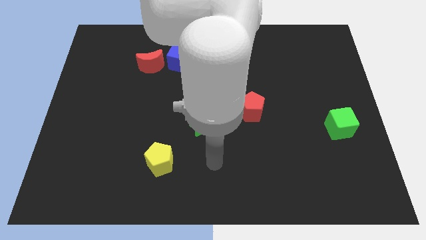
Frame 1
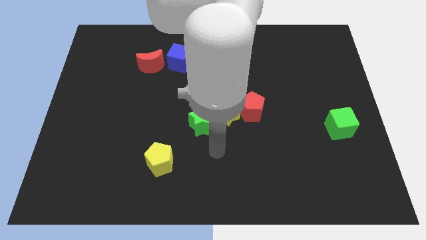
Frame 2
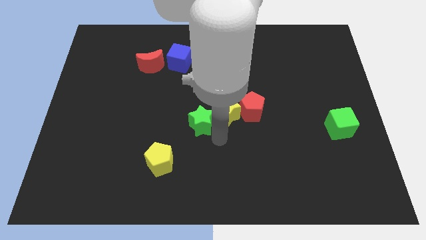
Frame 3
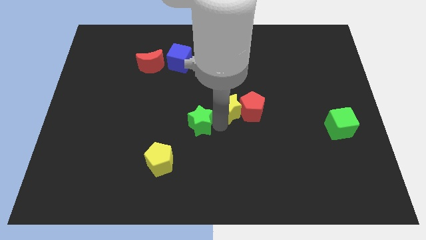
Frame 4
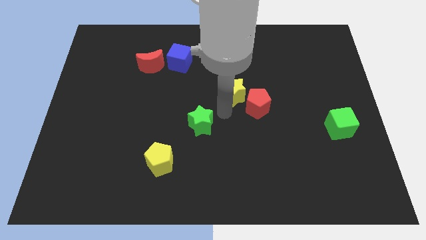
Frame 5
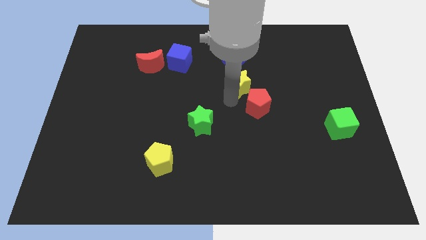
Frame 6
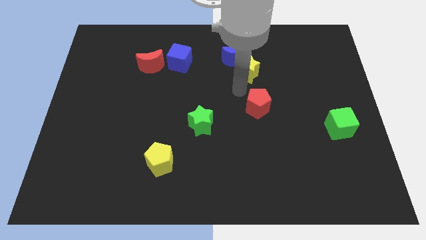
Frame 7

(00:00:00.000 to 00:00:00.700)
separate the red pentagon from the yellow star

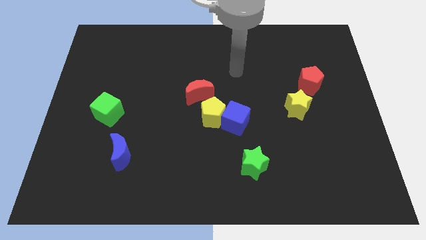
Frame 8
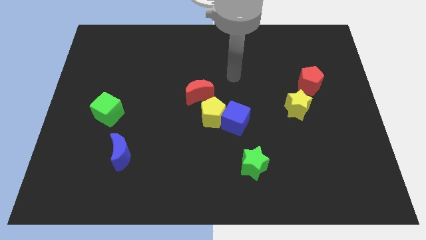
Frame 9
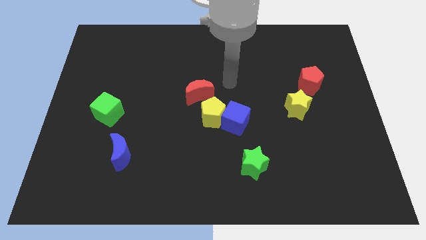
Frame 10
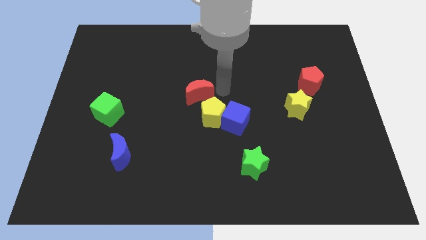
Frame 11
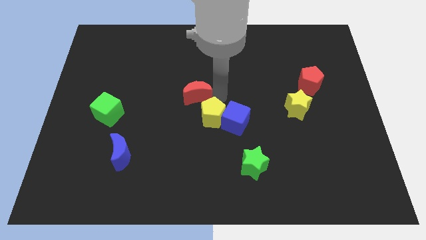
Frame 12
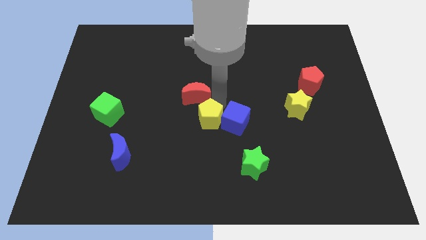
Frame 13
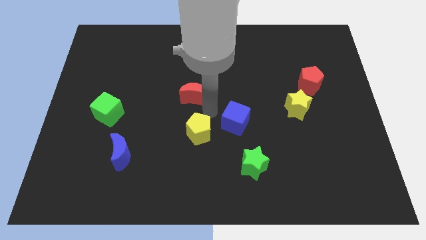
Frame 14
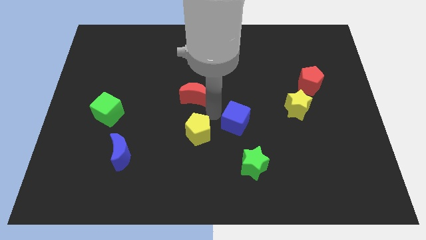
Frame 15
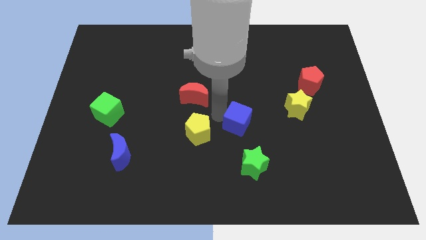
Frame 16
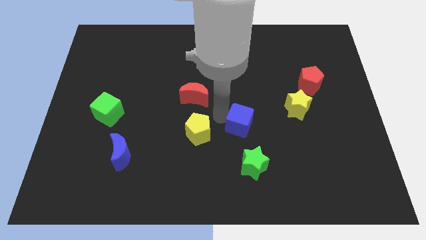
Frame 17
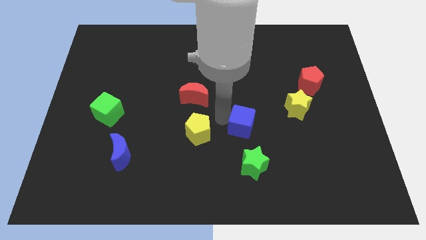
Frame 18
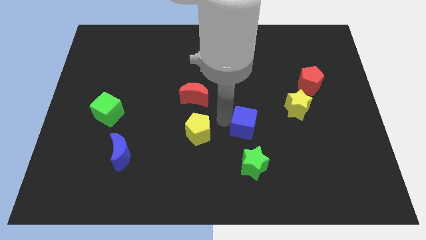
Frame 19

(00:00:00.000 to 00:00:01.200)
move the blue cube away from the yellow pentagon

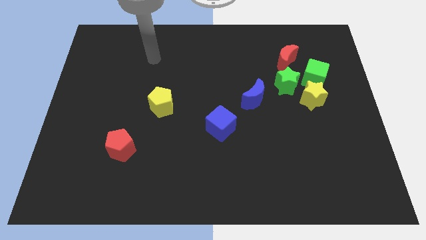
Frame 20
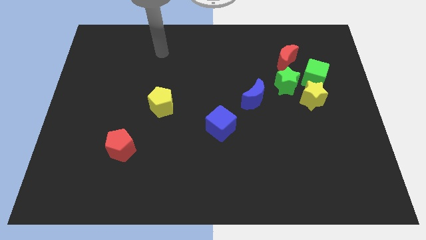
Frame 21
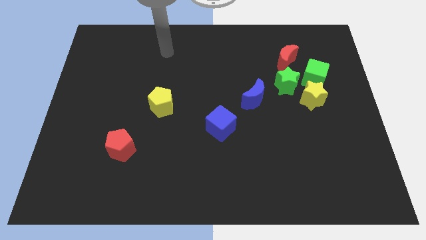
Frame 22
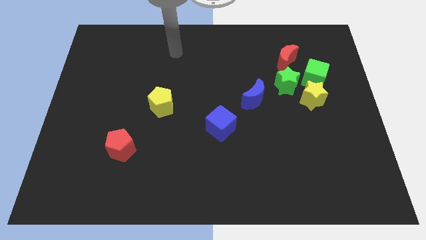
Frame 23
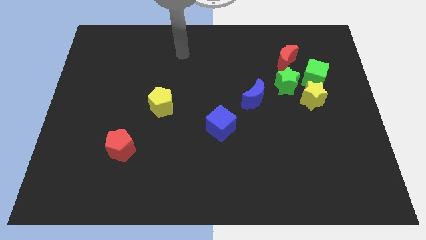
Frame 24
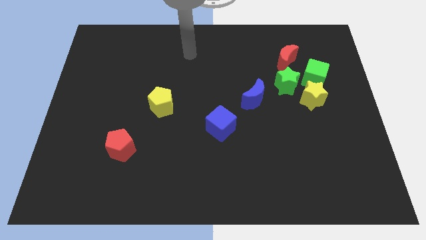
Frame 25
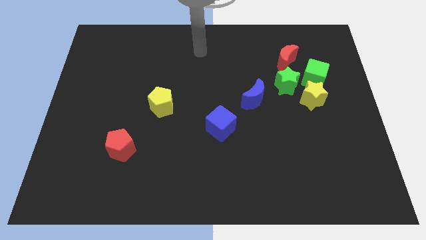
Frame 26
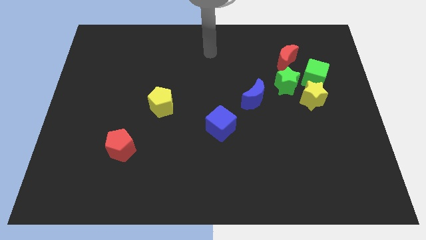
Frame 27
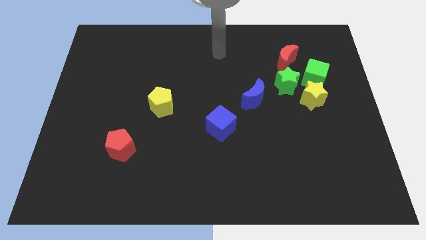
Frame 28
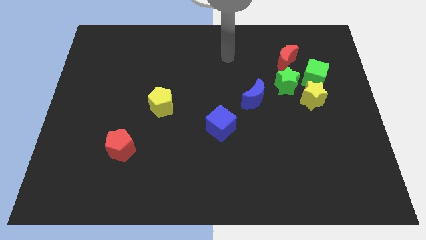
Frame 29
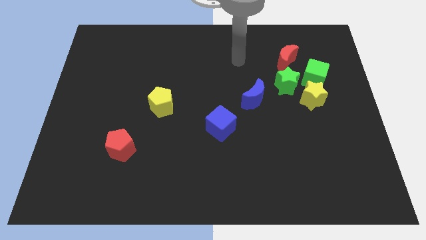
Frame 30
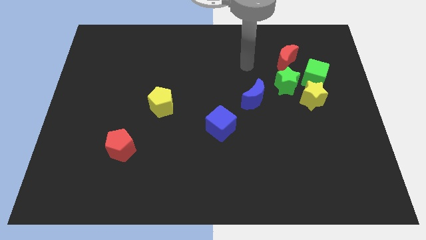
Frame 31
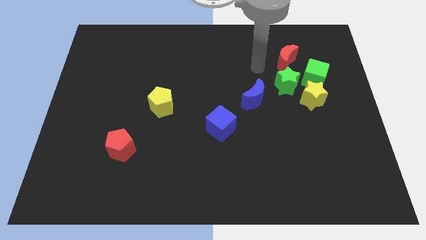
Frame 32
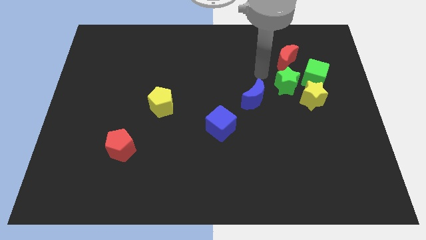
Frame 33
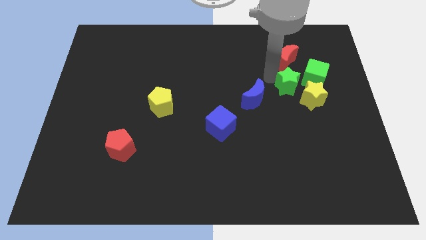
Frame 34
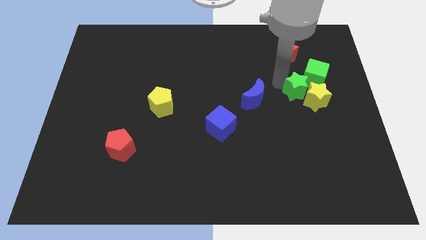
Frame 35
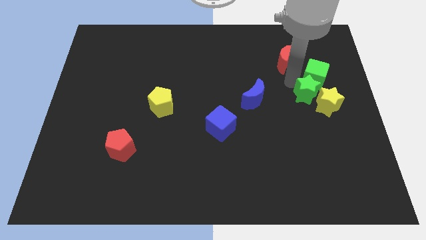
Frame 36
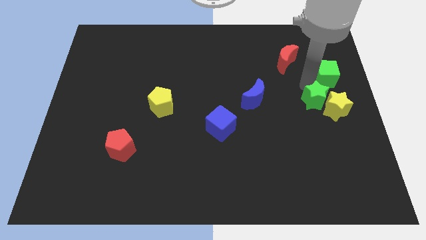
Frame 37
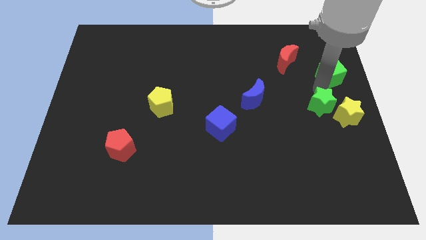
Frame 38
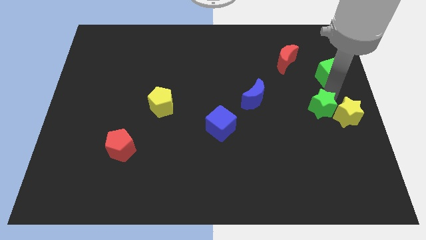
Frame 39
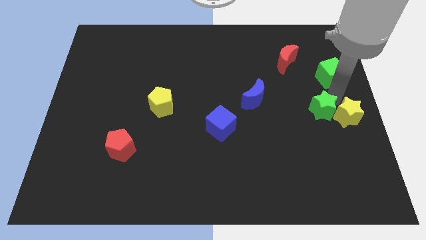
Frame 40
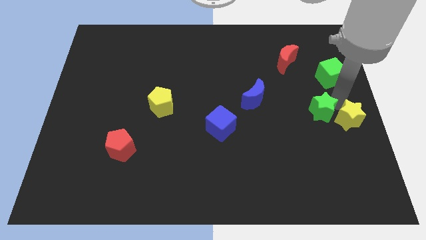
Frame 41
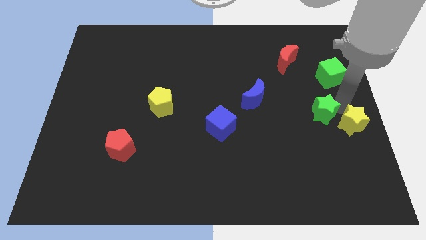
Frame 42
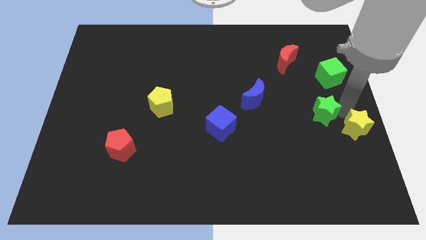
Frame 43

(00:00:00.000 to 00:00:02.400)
pull the yellow star apart from the green cube and green star

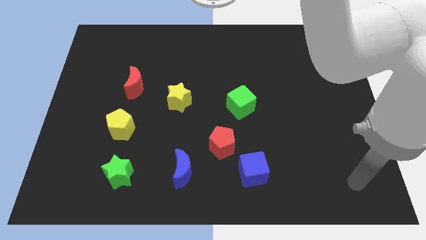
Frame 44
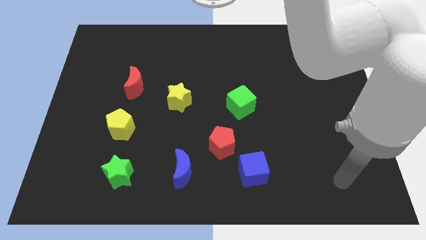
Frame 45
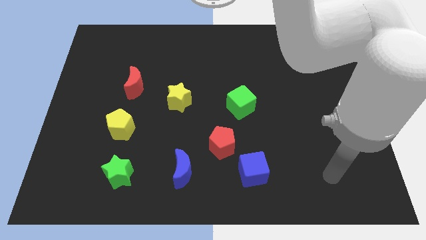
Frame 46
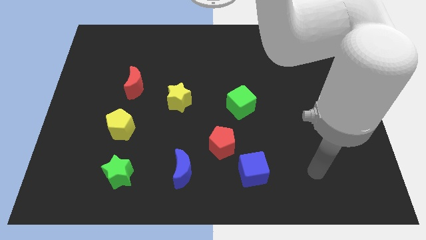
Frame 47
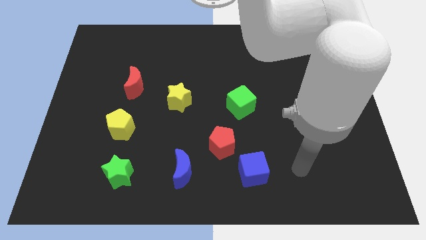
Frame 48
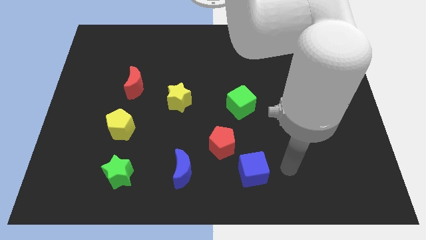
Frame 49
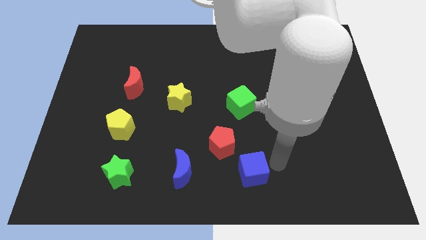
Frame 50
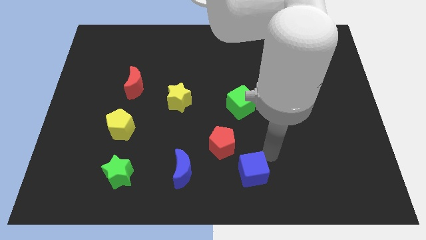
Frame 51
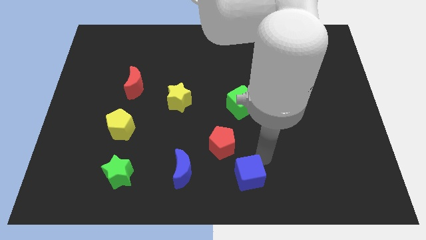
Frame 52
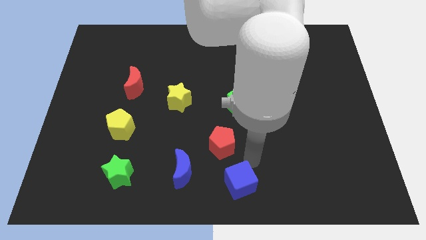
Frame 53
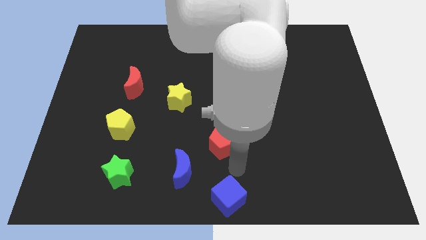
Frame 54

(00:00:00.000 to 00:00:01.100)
move the red pentagon away from the blue cube

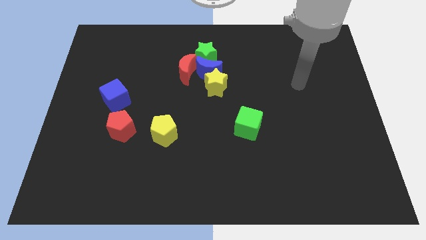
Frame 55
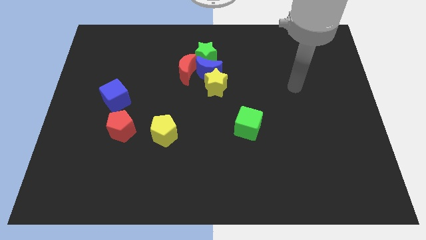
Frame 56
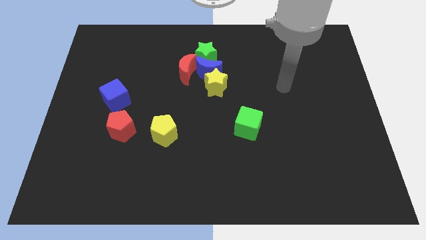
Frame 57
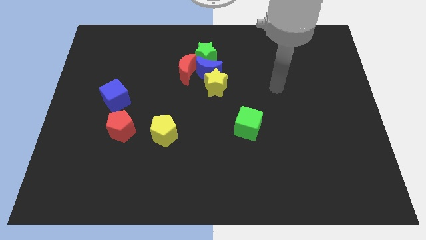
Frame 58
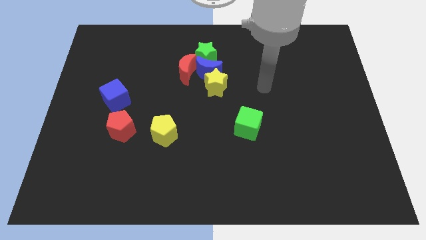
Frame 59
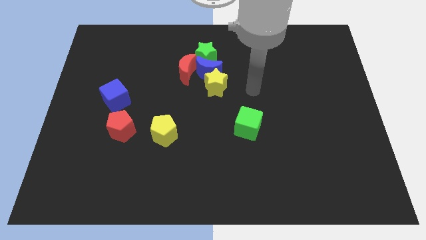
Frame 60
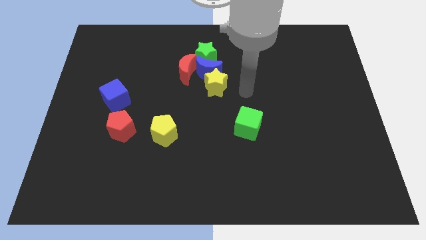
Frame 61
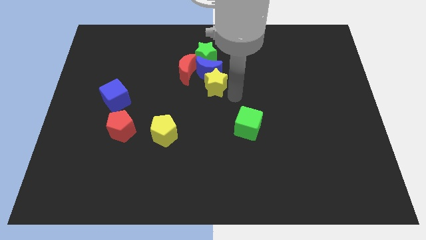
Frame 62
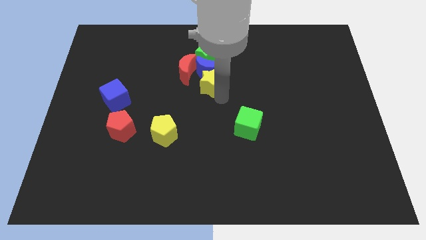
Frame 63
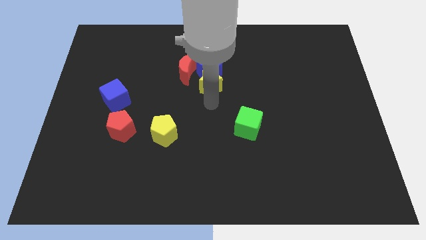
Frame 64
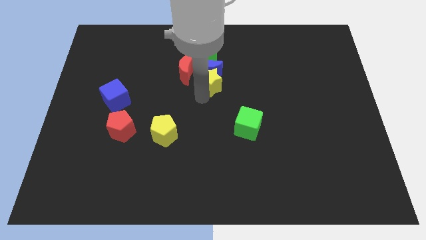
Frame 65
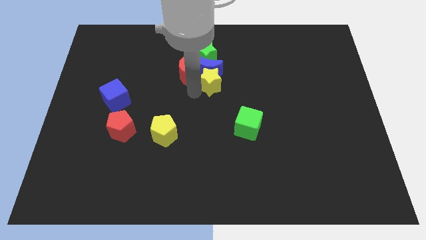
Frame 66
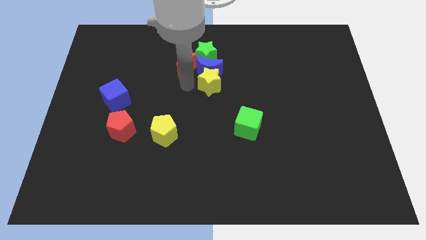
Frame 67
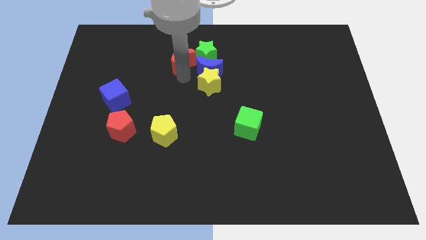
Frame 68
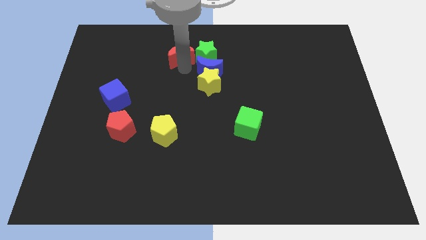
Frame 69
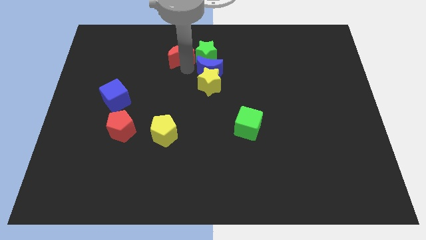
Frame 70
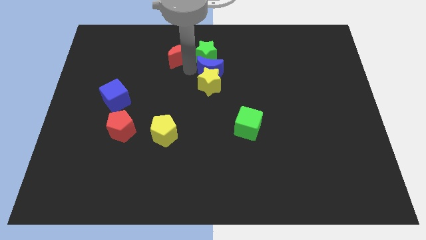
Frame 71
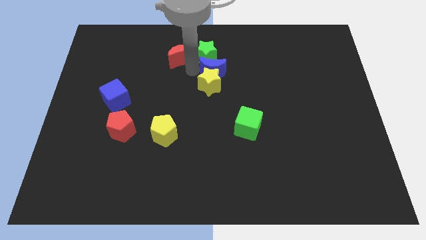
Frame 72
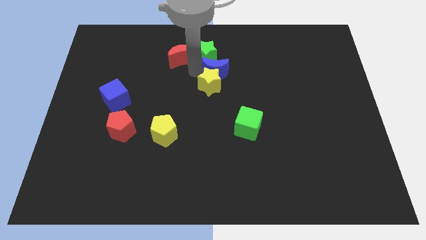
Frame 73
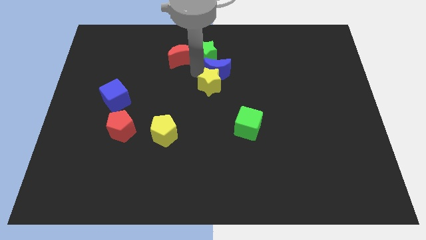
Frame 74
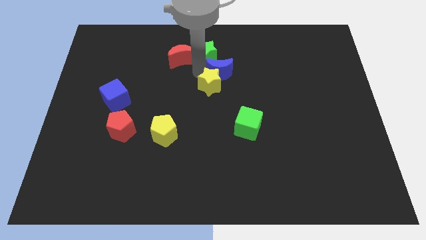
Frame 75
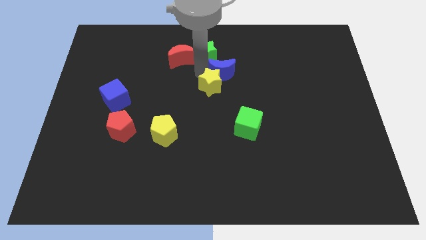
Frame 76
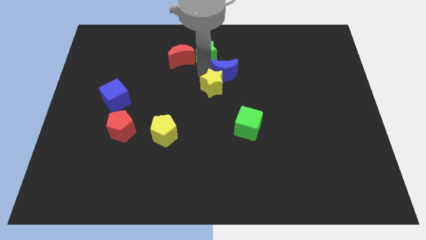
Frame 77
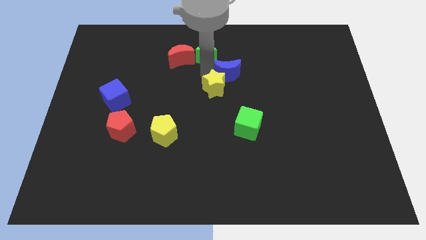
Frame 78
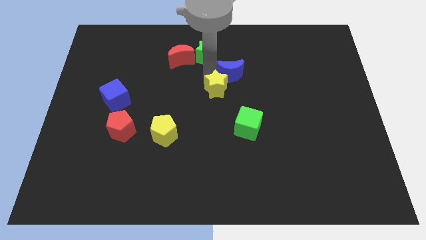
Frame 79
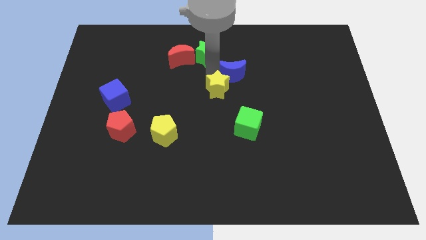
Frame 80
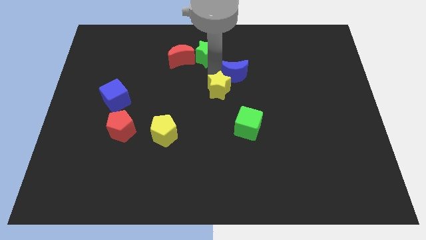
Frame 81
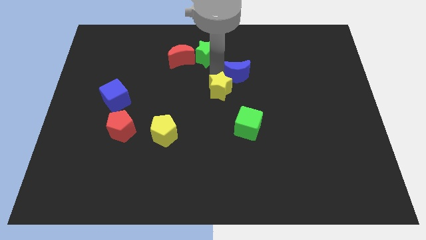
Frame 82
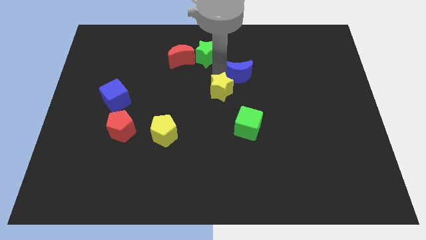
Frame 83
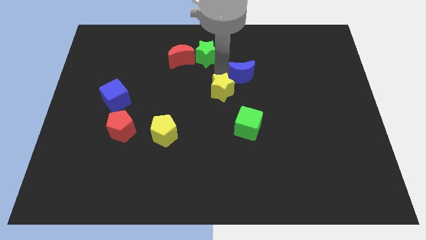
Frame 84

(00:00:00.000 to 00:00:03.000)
pull the blue moon apart from the clump

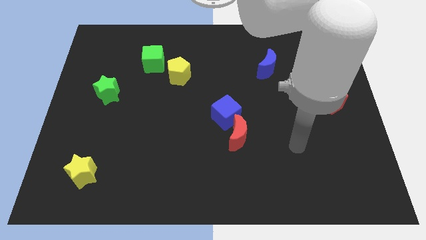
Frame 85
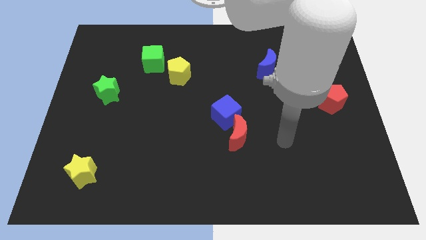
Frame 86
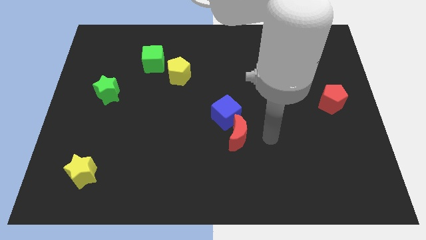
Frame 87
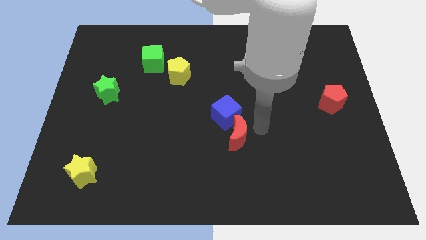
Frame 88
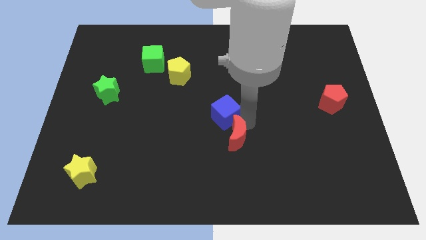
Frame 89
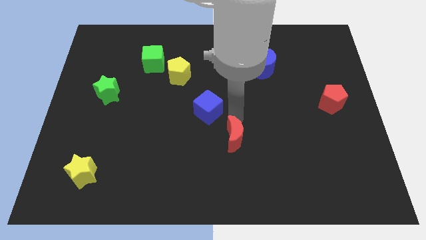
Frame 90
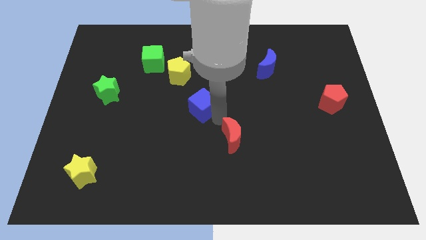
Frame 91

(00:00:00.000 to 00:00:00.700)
separate the red moon from the blue cube
